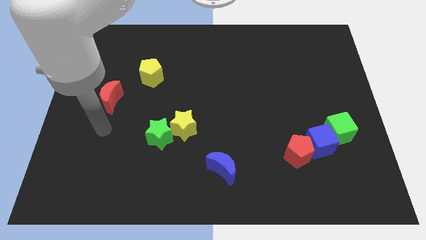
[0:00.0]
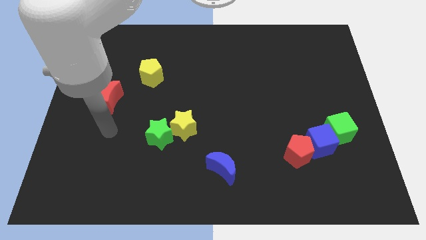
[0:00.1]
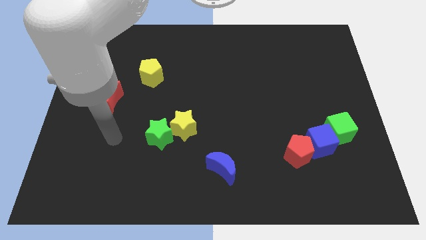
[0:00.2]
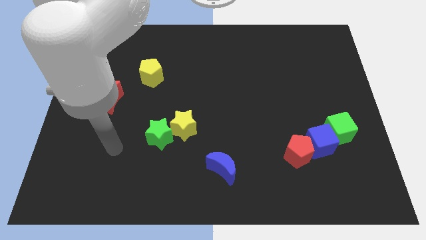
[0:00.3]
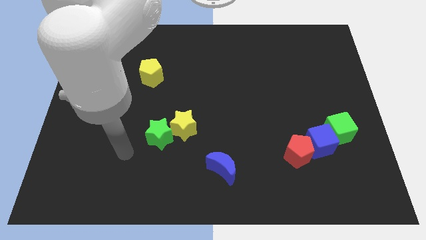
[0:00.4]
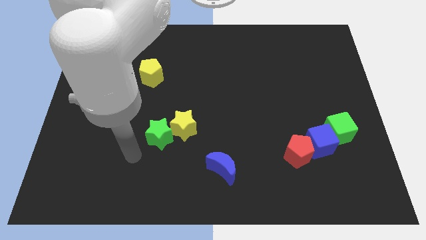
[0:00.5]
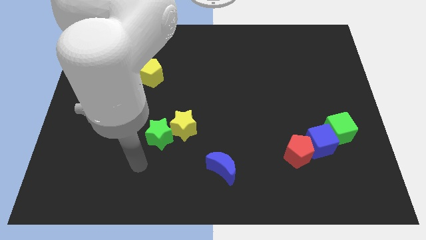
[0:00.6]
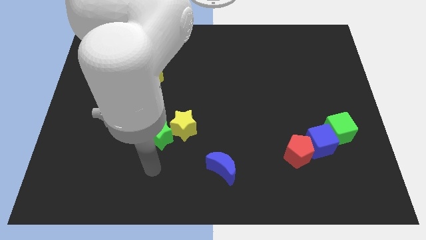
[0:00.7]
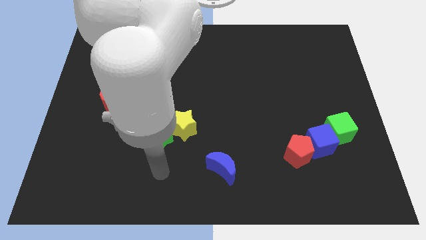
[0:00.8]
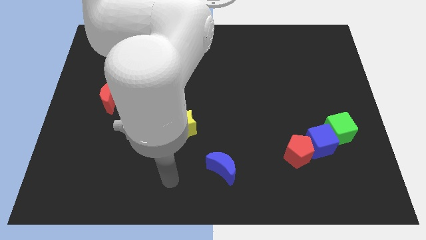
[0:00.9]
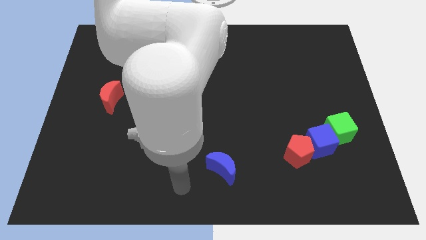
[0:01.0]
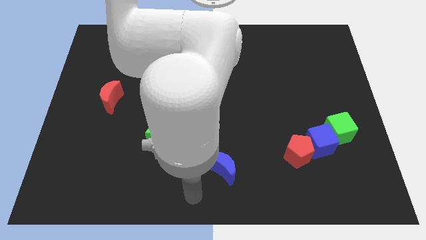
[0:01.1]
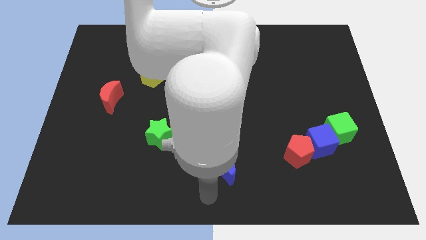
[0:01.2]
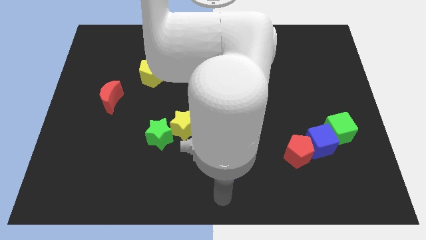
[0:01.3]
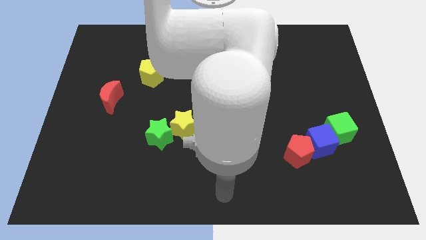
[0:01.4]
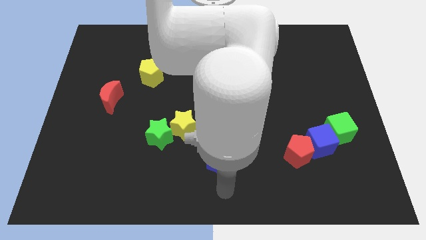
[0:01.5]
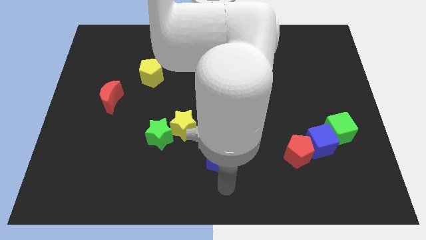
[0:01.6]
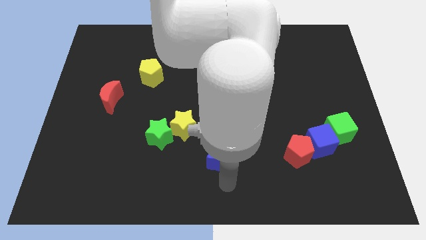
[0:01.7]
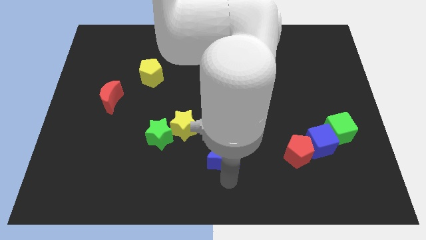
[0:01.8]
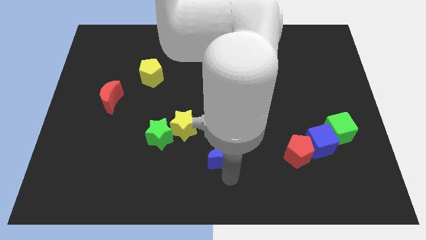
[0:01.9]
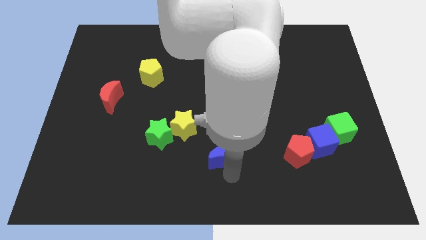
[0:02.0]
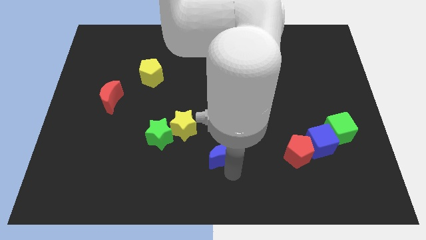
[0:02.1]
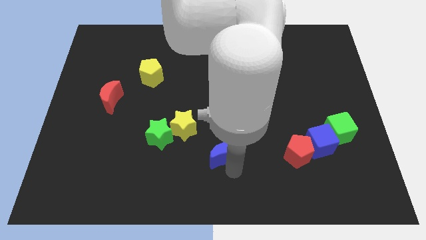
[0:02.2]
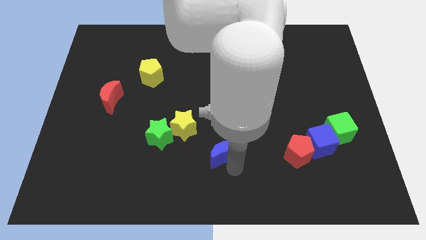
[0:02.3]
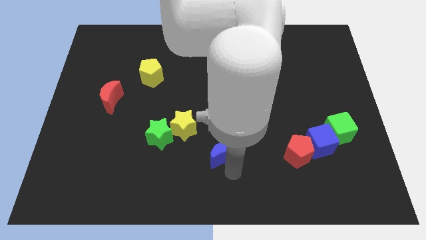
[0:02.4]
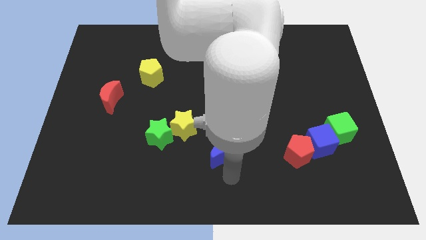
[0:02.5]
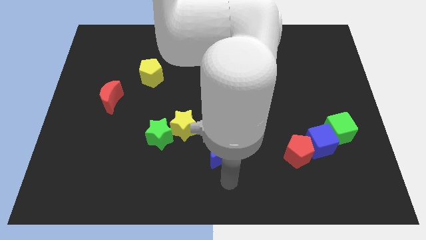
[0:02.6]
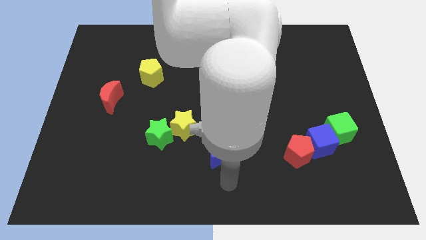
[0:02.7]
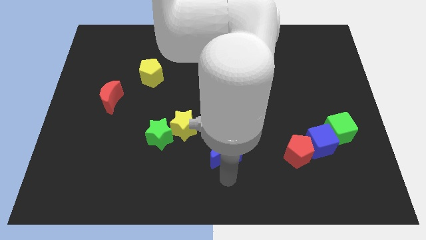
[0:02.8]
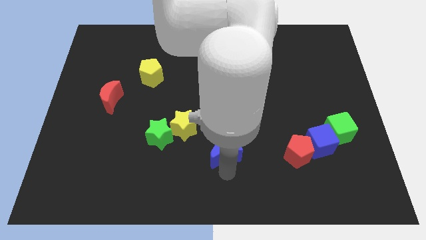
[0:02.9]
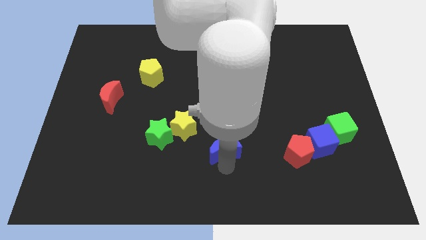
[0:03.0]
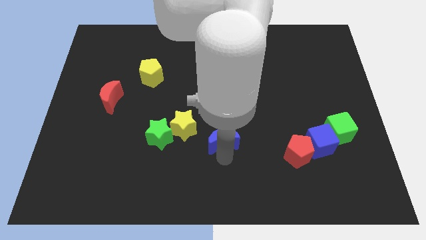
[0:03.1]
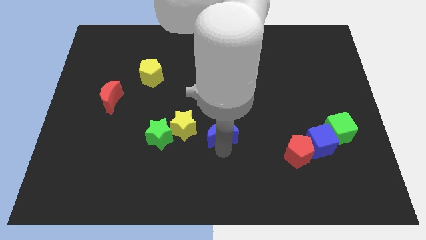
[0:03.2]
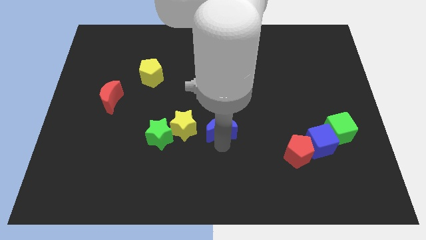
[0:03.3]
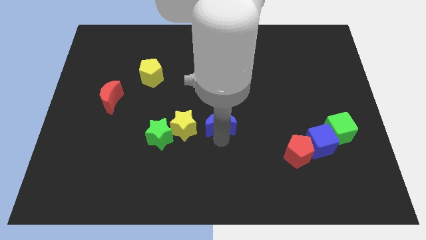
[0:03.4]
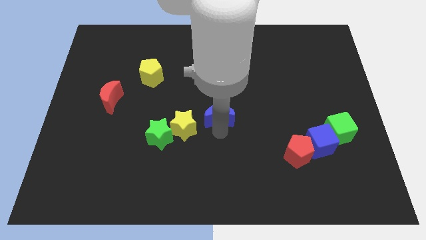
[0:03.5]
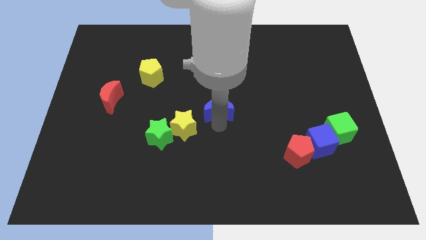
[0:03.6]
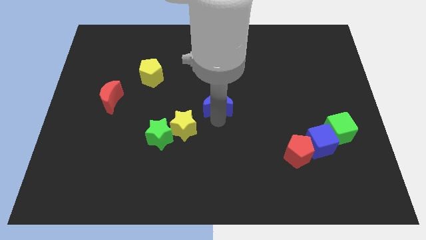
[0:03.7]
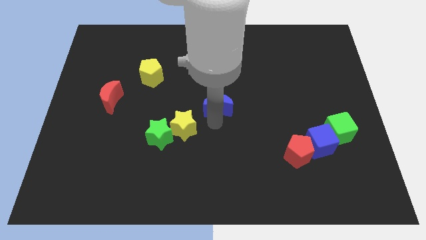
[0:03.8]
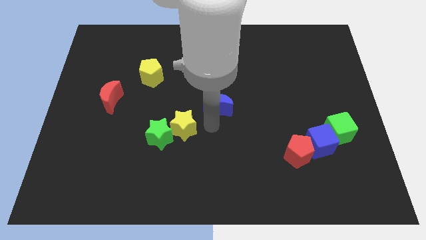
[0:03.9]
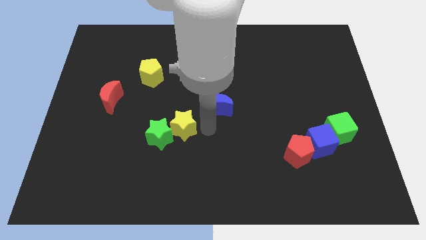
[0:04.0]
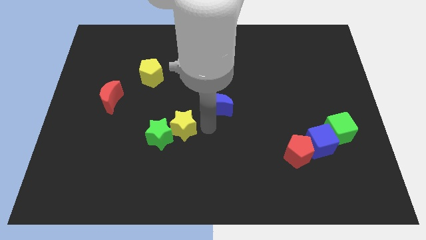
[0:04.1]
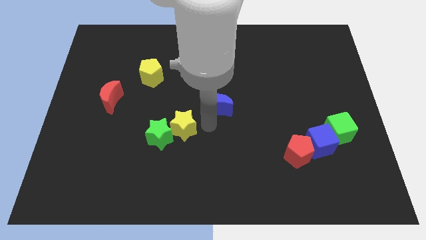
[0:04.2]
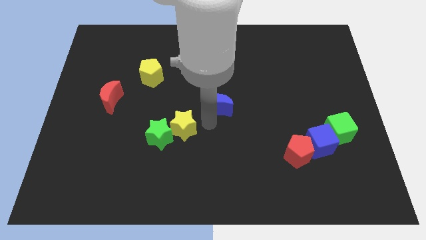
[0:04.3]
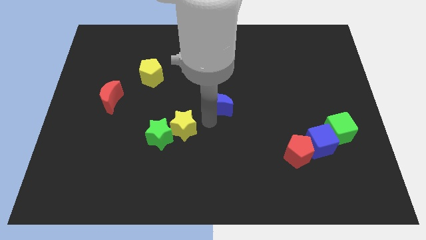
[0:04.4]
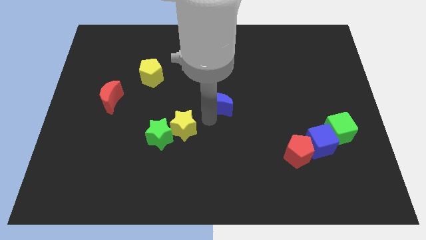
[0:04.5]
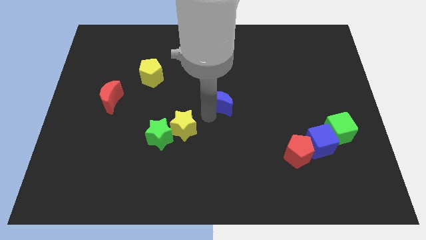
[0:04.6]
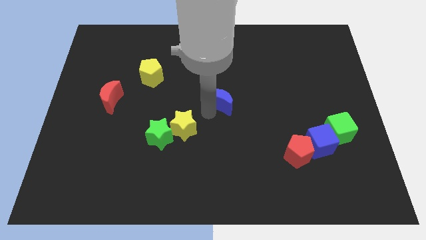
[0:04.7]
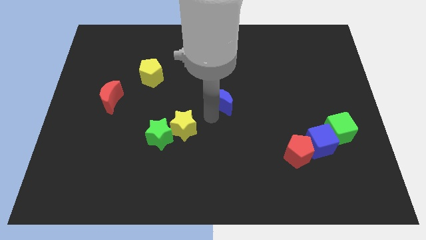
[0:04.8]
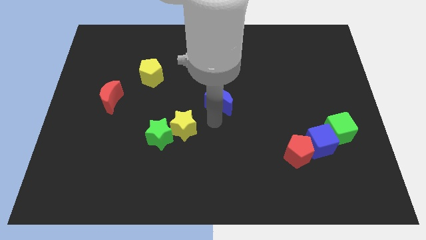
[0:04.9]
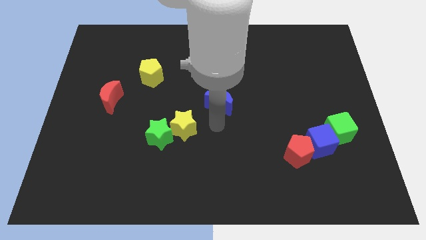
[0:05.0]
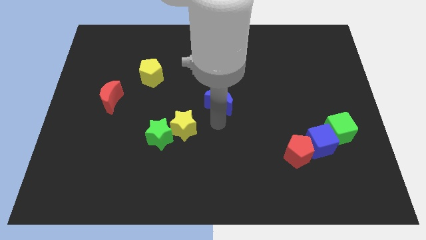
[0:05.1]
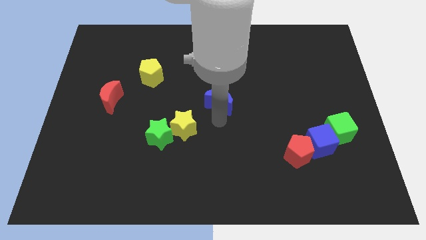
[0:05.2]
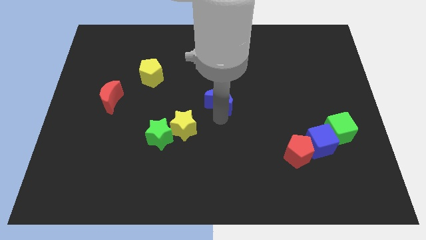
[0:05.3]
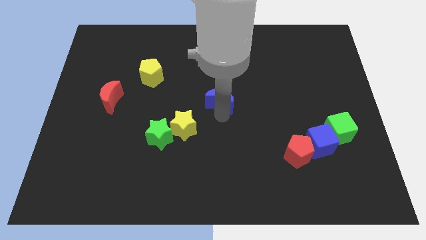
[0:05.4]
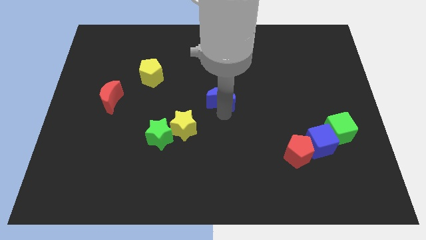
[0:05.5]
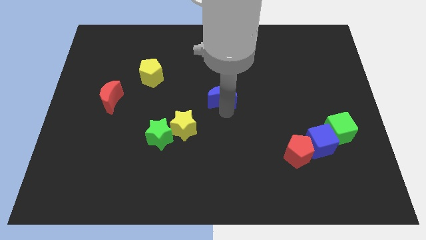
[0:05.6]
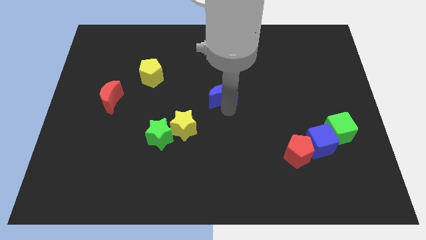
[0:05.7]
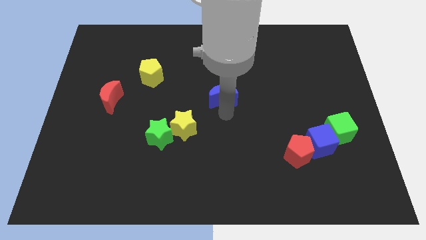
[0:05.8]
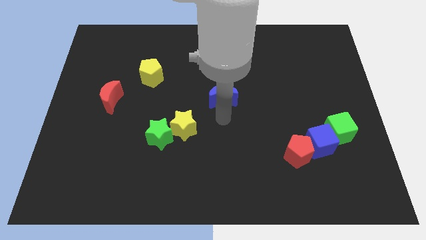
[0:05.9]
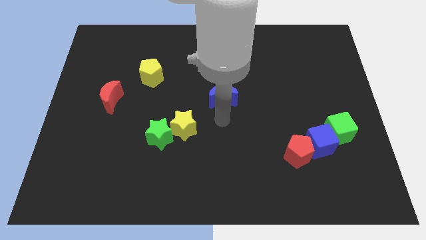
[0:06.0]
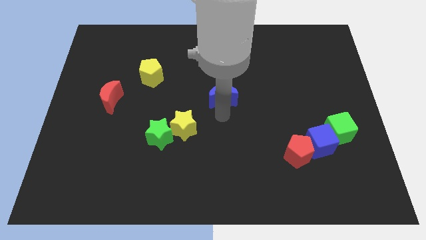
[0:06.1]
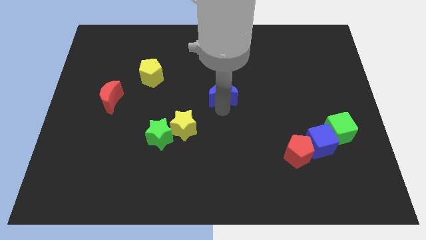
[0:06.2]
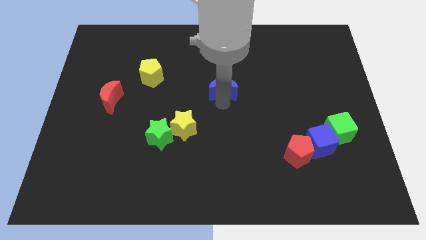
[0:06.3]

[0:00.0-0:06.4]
push the blue moon up

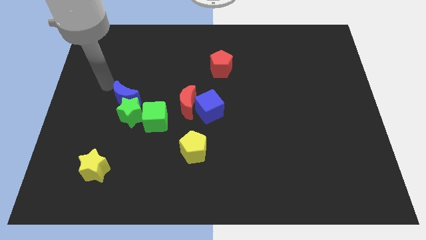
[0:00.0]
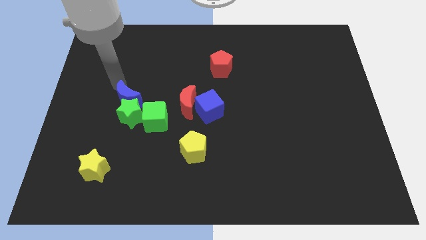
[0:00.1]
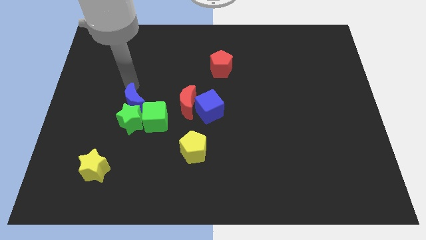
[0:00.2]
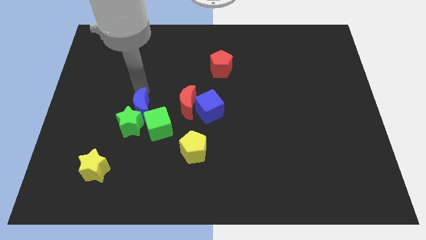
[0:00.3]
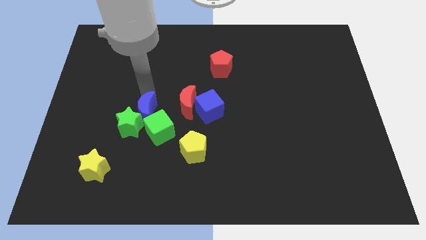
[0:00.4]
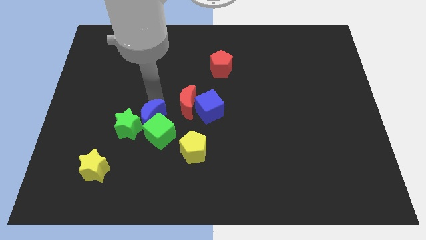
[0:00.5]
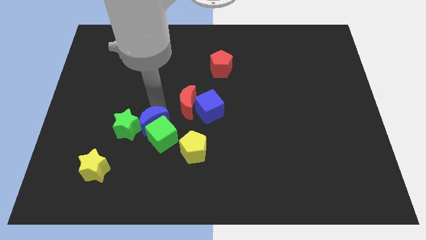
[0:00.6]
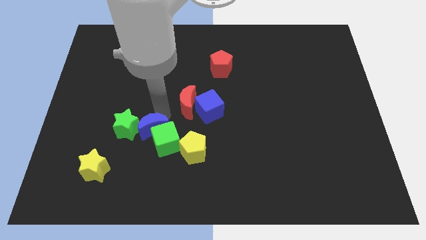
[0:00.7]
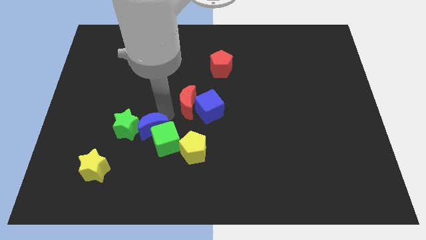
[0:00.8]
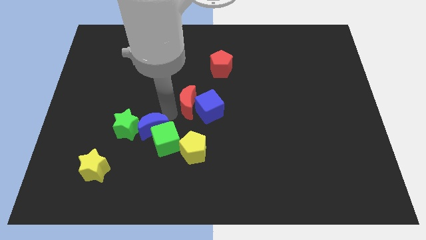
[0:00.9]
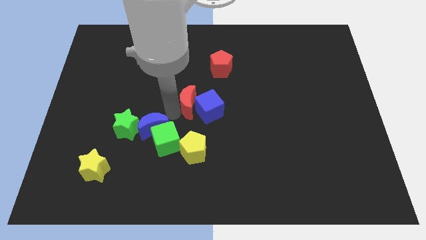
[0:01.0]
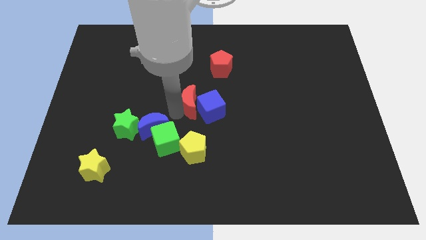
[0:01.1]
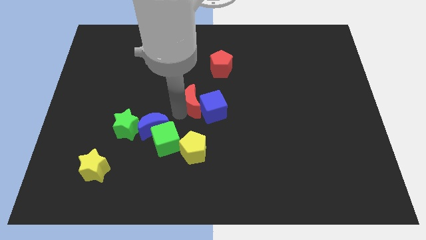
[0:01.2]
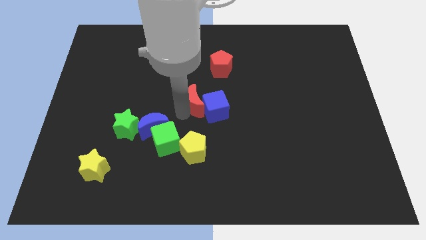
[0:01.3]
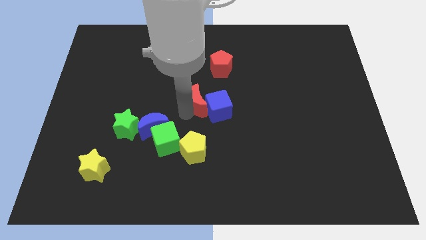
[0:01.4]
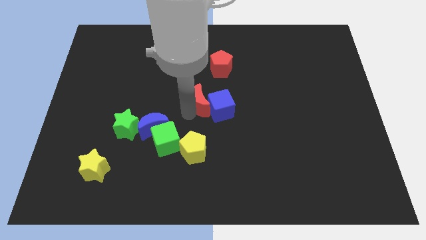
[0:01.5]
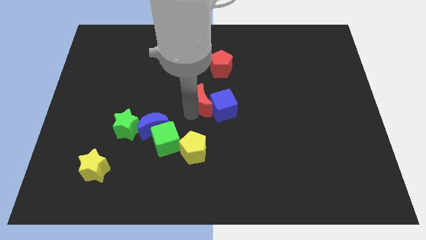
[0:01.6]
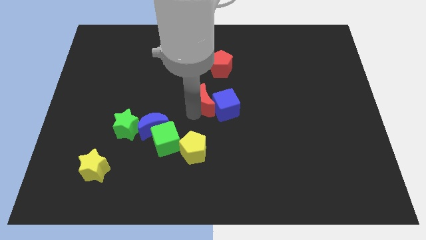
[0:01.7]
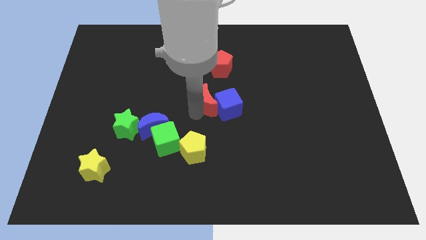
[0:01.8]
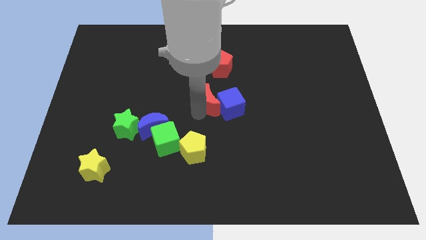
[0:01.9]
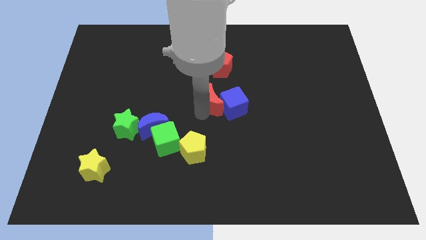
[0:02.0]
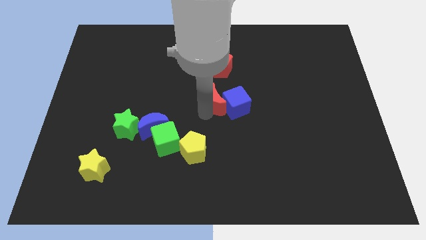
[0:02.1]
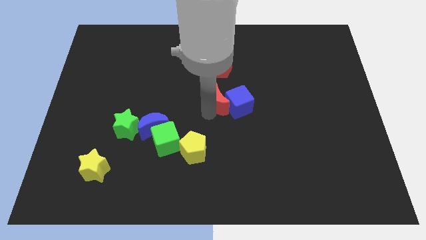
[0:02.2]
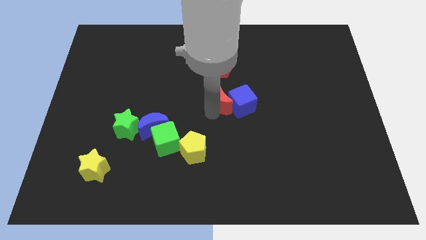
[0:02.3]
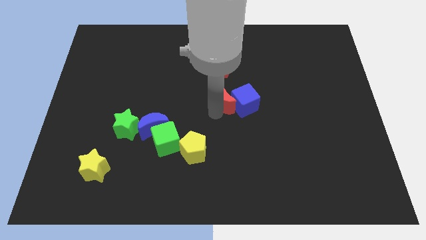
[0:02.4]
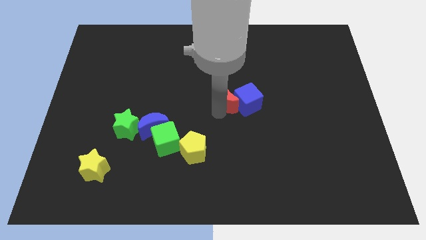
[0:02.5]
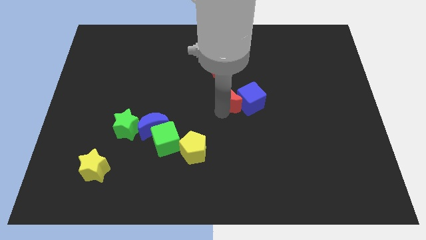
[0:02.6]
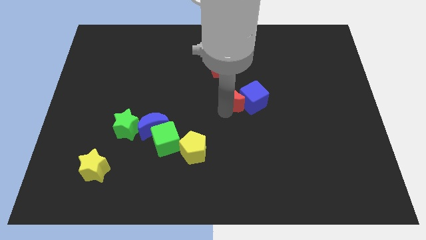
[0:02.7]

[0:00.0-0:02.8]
move the red moon upwards and to the right slightly
